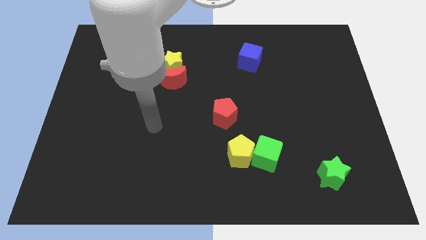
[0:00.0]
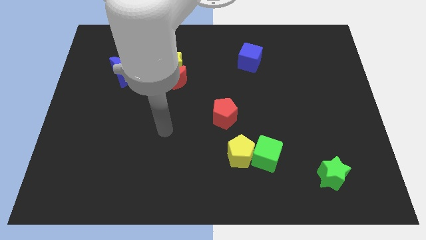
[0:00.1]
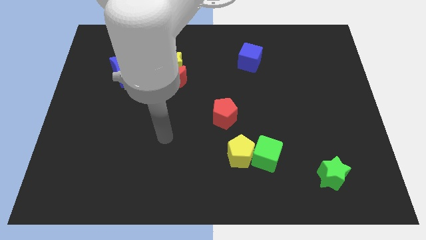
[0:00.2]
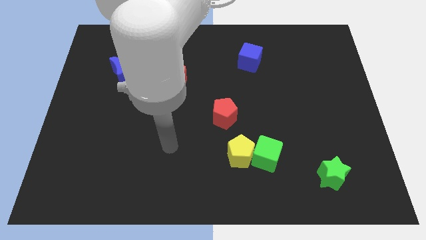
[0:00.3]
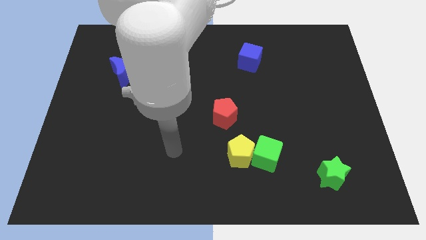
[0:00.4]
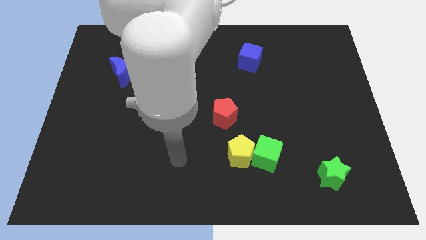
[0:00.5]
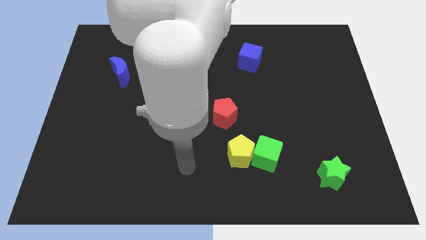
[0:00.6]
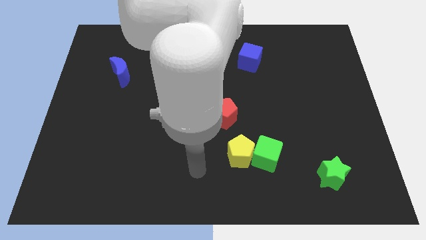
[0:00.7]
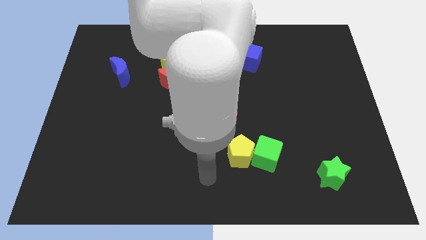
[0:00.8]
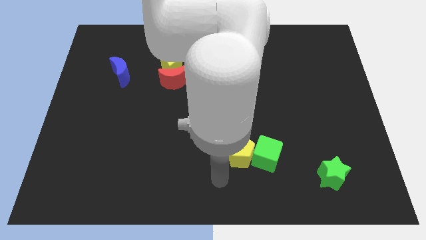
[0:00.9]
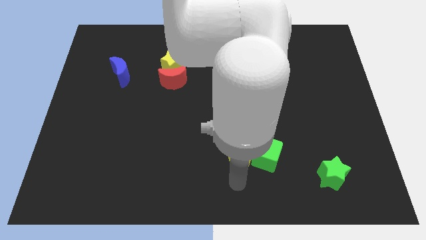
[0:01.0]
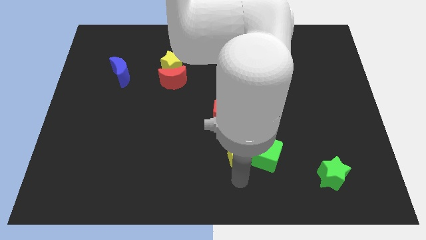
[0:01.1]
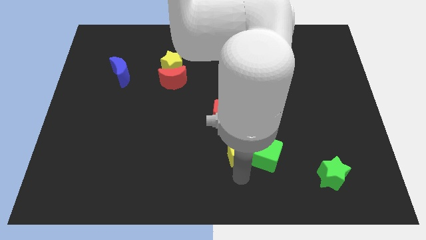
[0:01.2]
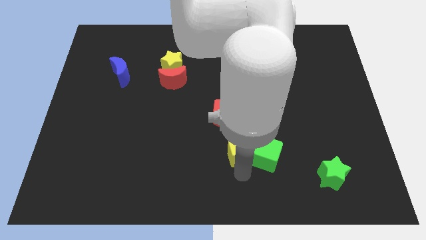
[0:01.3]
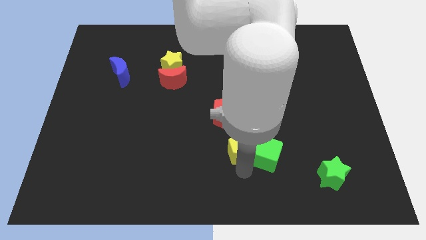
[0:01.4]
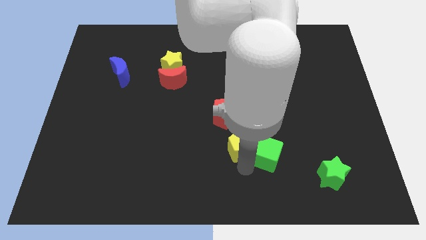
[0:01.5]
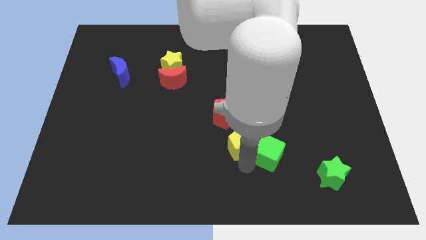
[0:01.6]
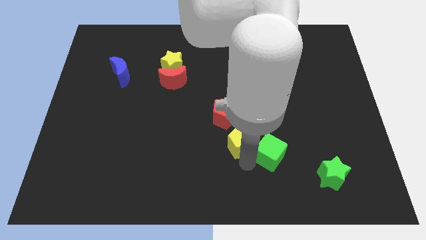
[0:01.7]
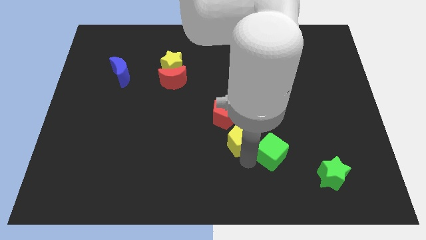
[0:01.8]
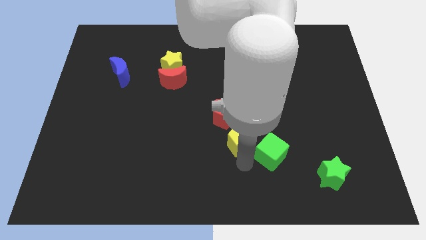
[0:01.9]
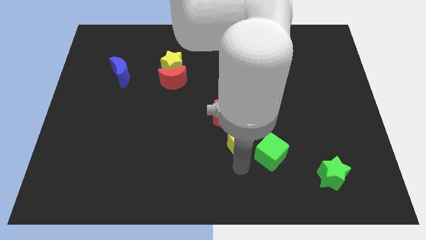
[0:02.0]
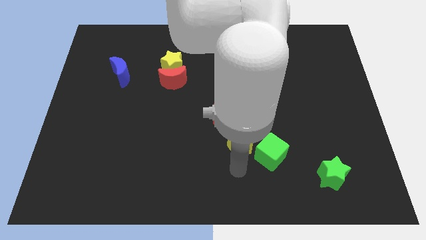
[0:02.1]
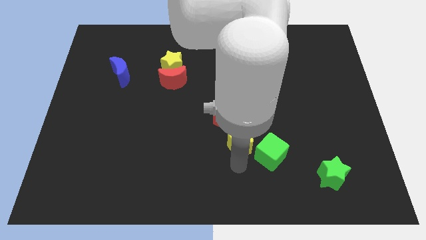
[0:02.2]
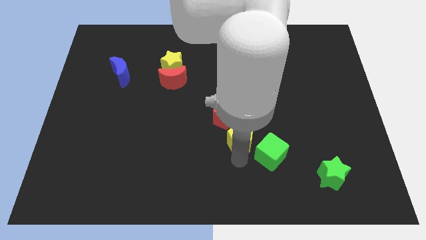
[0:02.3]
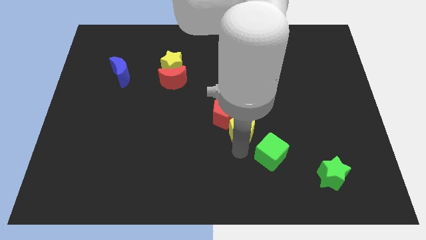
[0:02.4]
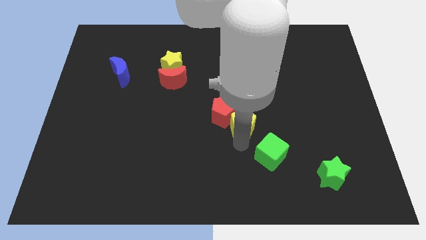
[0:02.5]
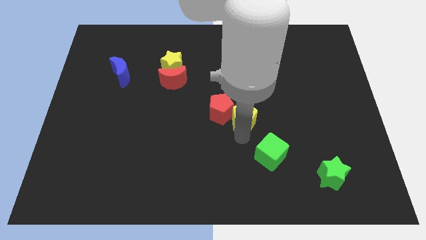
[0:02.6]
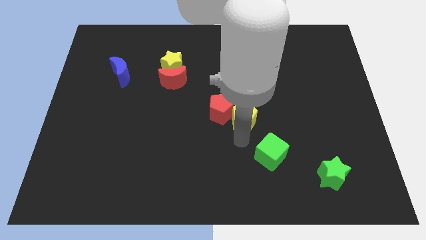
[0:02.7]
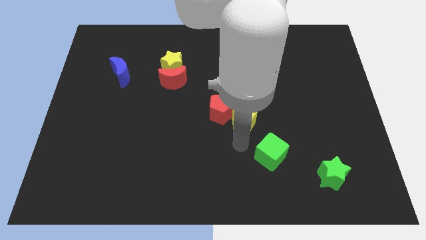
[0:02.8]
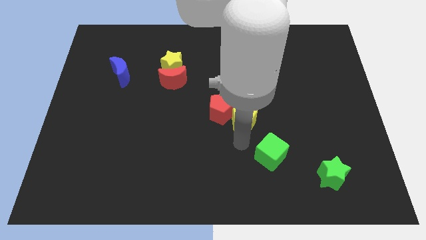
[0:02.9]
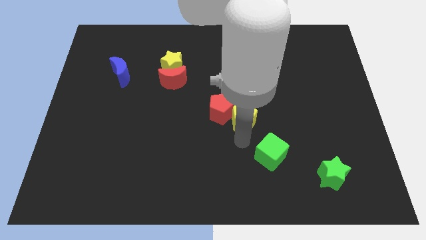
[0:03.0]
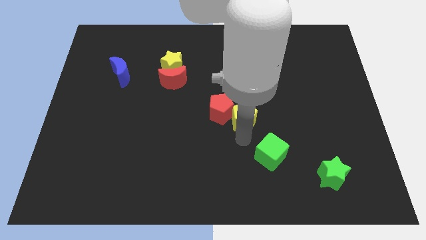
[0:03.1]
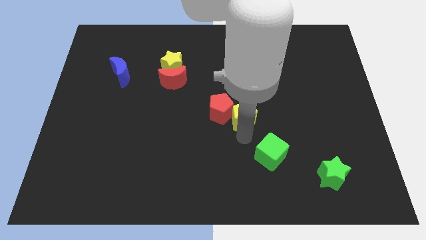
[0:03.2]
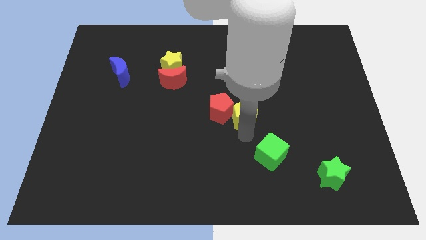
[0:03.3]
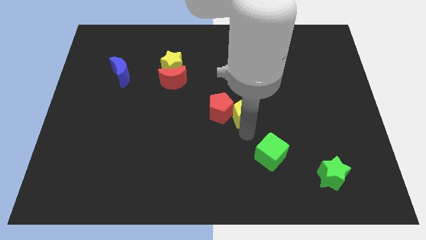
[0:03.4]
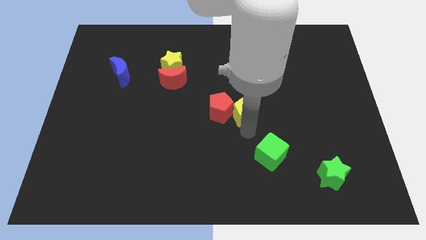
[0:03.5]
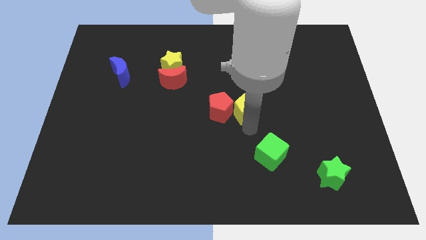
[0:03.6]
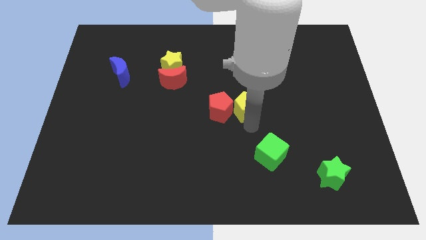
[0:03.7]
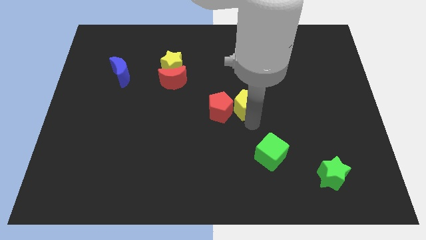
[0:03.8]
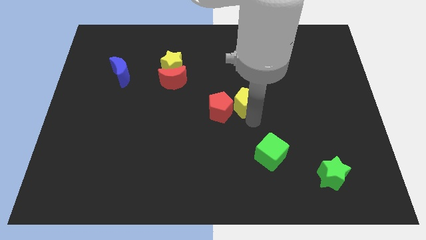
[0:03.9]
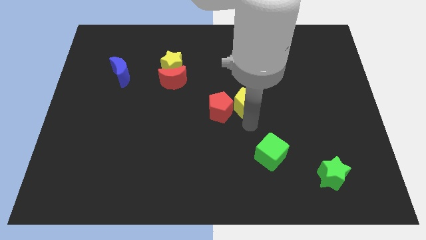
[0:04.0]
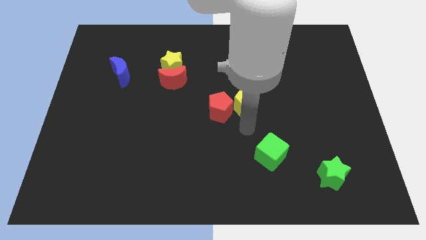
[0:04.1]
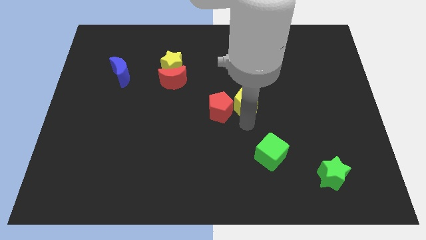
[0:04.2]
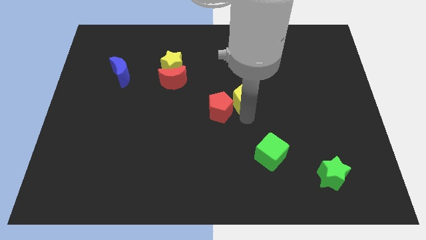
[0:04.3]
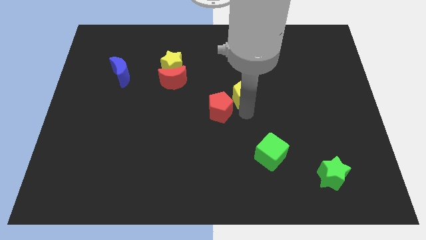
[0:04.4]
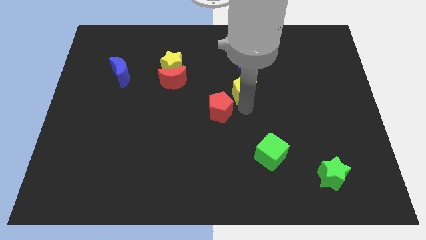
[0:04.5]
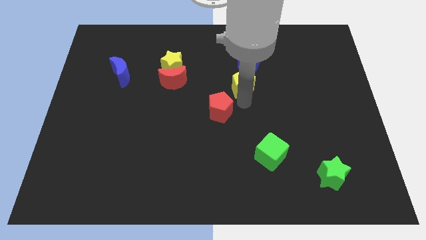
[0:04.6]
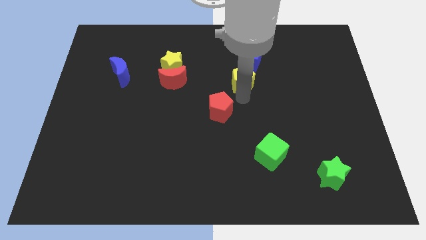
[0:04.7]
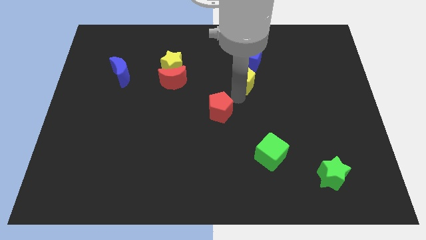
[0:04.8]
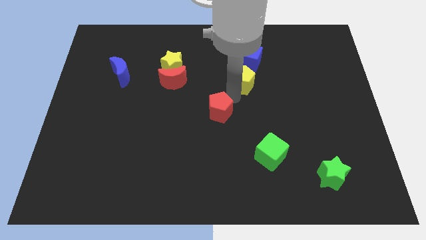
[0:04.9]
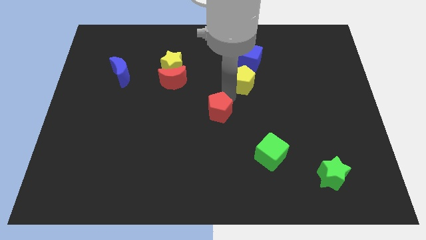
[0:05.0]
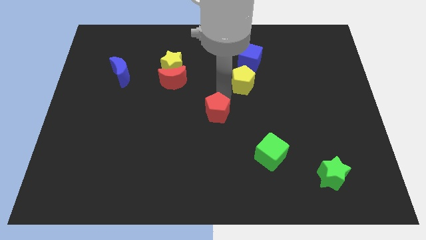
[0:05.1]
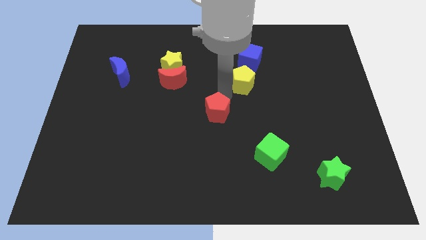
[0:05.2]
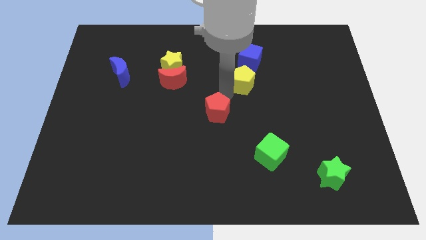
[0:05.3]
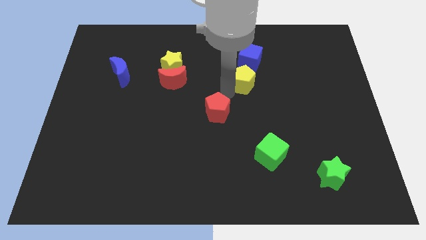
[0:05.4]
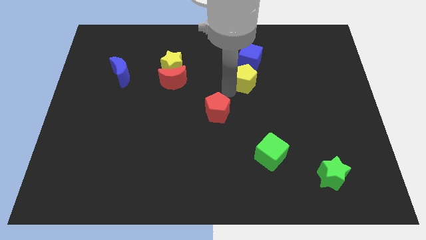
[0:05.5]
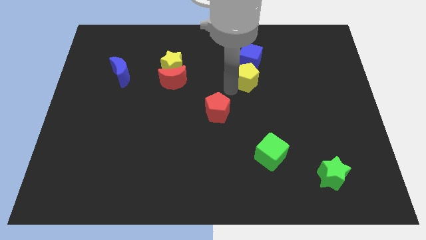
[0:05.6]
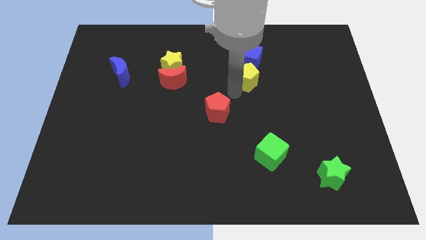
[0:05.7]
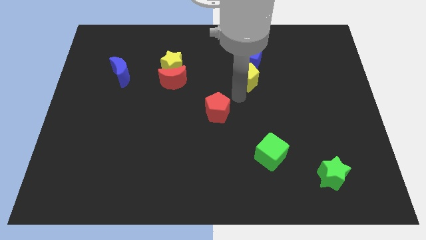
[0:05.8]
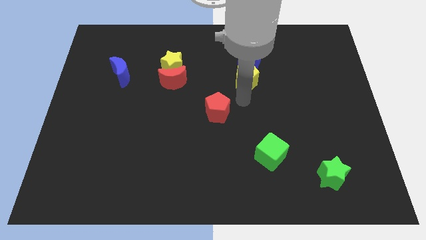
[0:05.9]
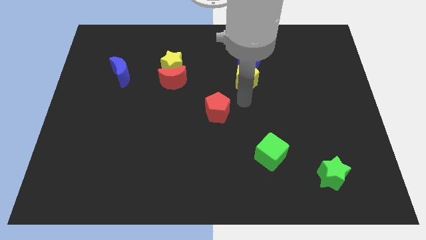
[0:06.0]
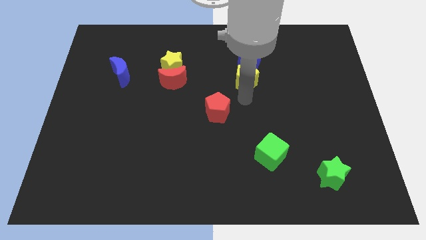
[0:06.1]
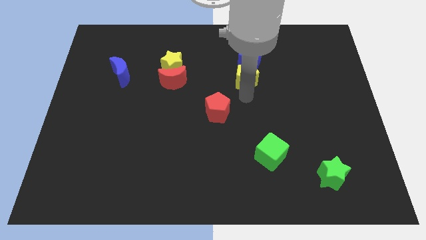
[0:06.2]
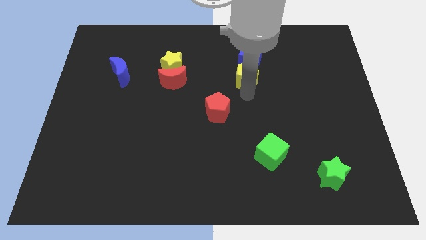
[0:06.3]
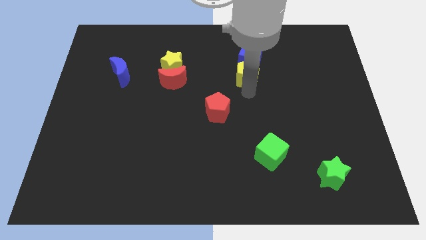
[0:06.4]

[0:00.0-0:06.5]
slide the yellow pentagon close to the blue cube
